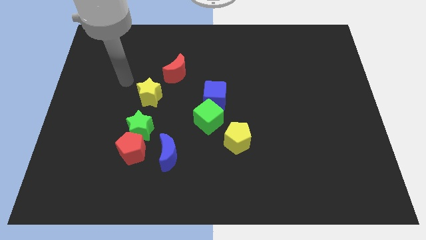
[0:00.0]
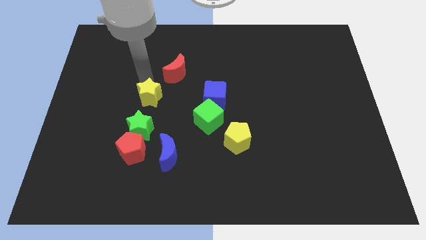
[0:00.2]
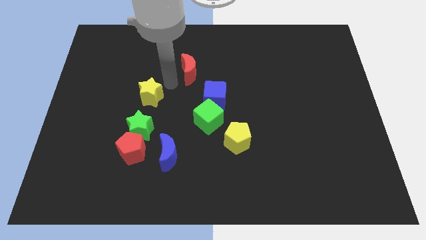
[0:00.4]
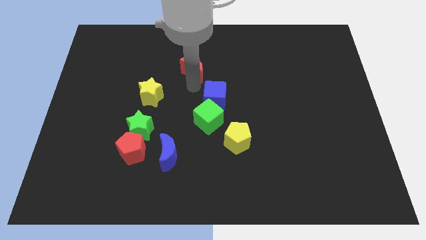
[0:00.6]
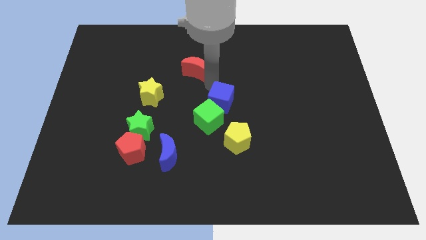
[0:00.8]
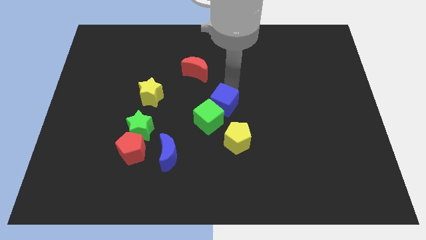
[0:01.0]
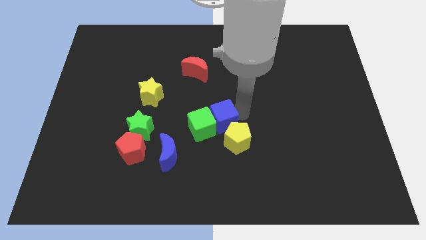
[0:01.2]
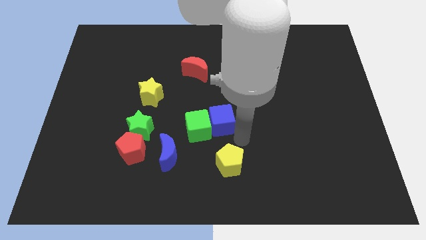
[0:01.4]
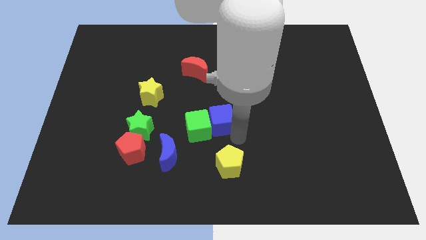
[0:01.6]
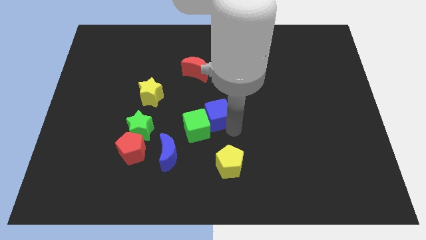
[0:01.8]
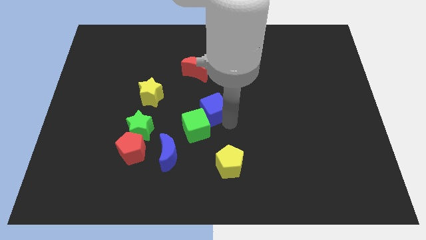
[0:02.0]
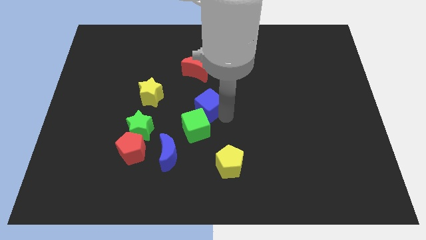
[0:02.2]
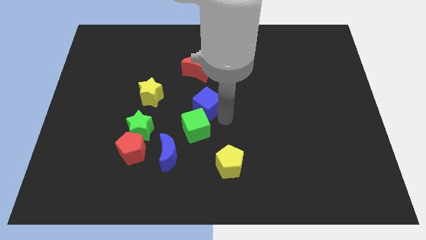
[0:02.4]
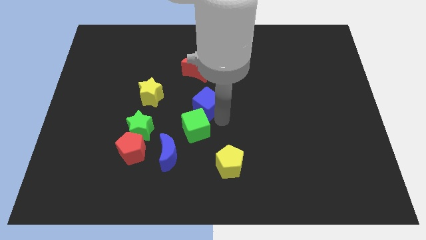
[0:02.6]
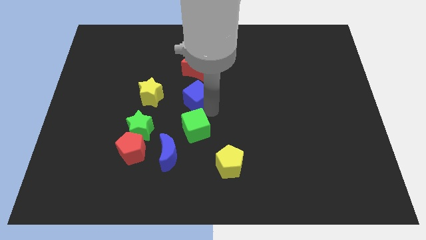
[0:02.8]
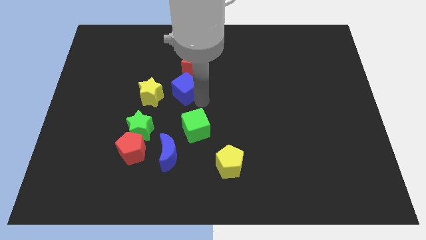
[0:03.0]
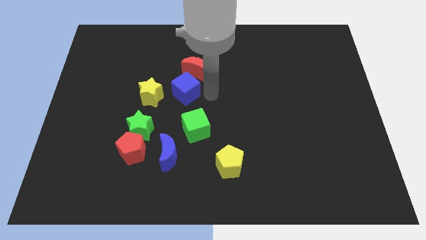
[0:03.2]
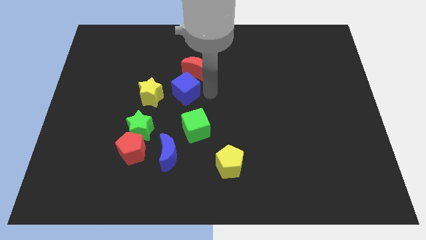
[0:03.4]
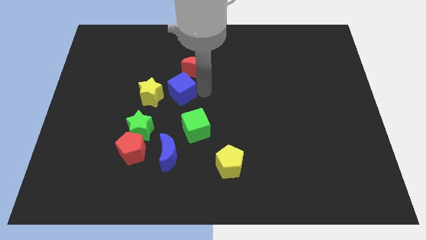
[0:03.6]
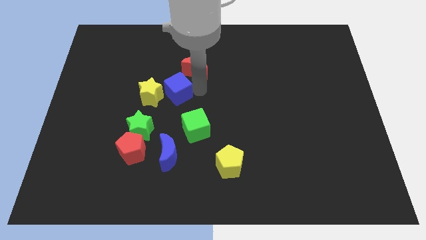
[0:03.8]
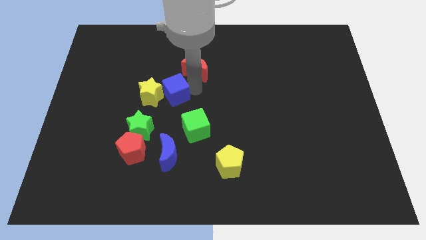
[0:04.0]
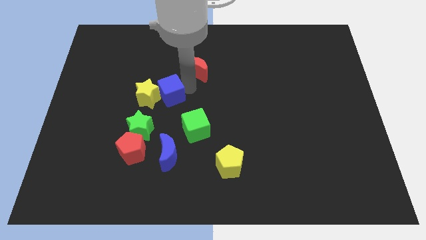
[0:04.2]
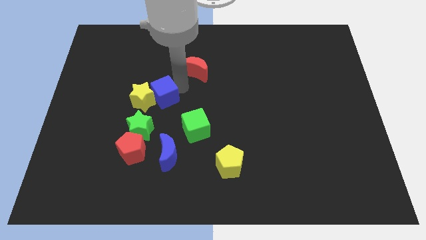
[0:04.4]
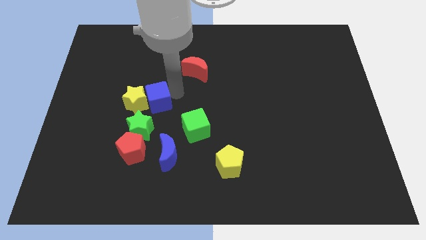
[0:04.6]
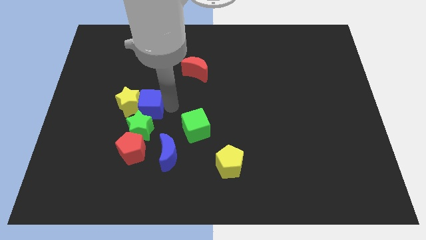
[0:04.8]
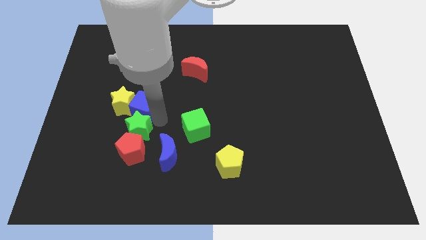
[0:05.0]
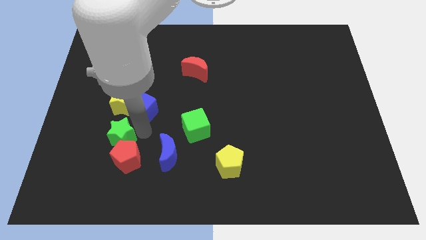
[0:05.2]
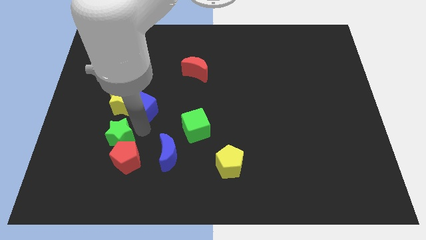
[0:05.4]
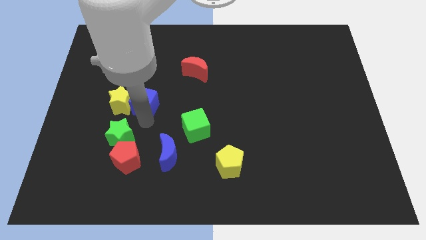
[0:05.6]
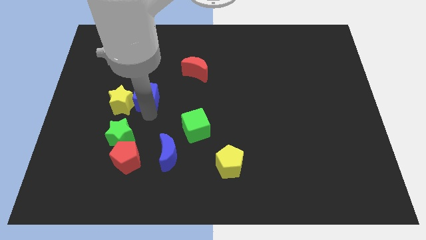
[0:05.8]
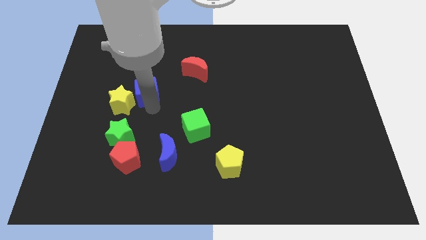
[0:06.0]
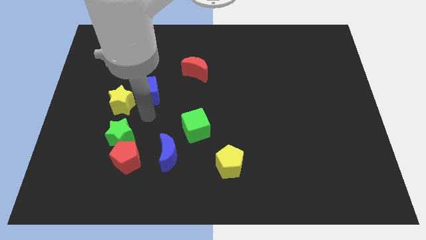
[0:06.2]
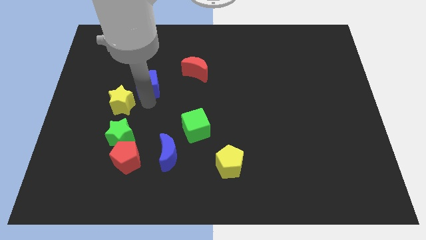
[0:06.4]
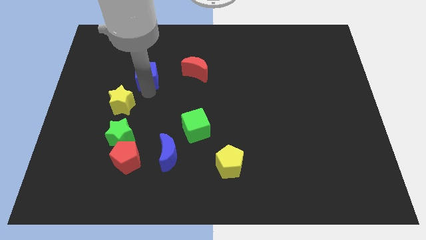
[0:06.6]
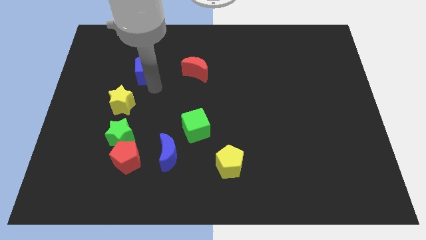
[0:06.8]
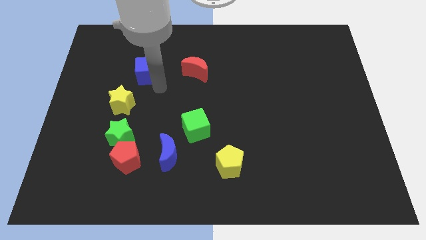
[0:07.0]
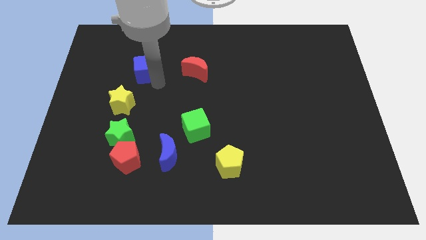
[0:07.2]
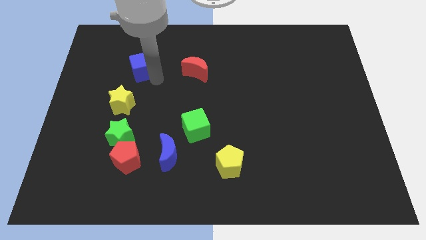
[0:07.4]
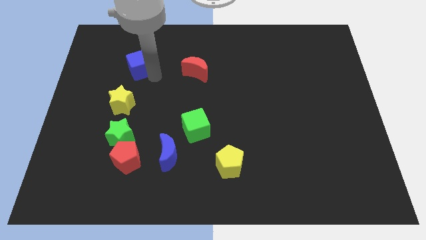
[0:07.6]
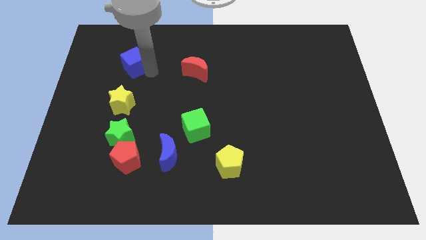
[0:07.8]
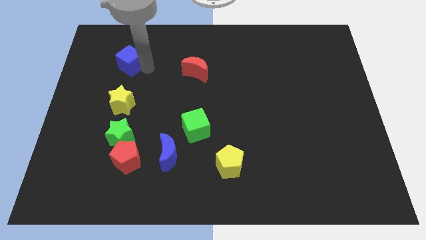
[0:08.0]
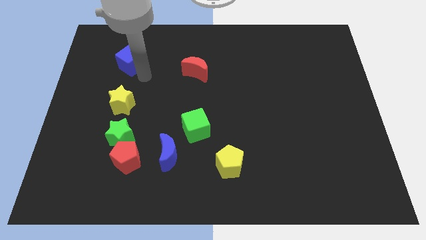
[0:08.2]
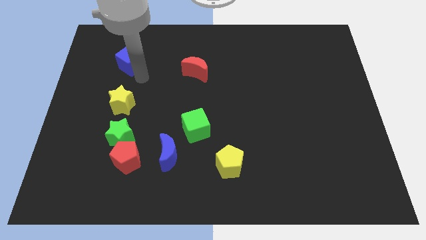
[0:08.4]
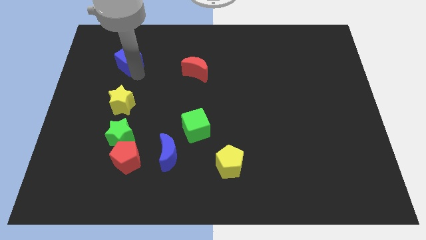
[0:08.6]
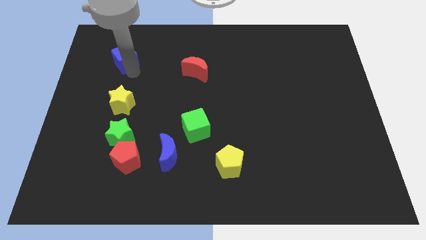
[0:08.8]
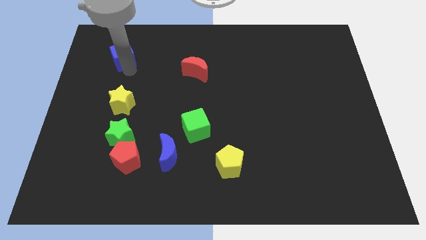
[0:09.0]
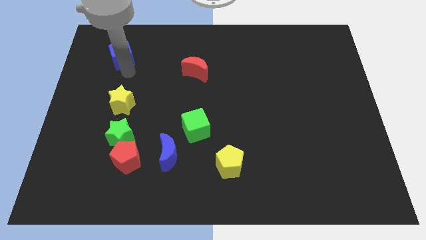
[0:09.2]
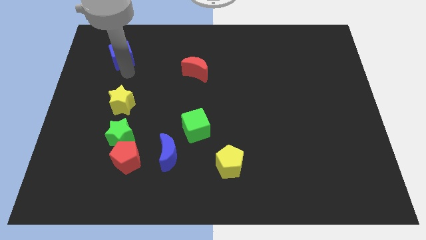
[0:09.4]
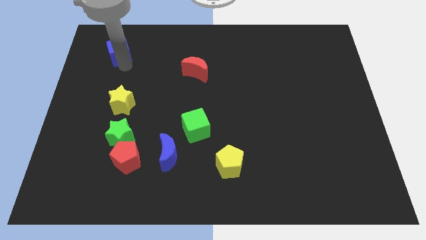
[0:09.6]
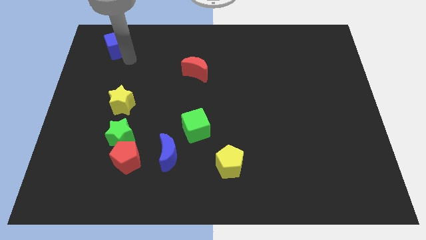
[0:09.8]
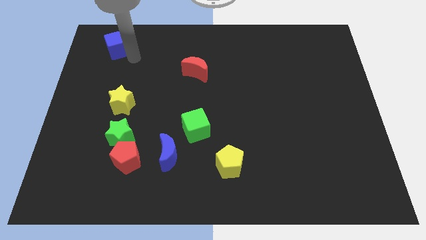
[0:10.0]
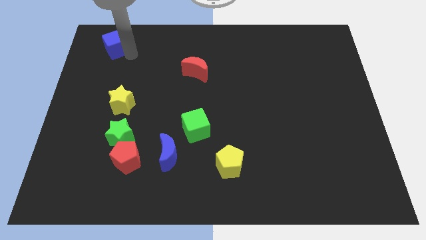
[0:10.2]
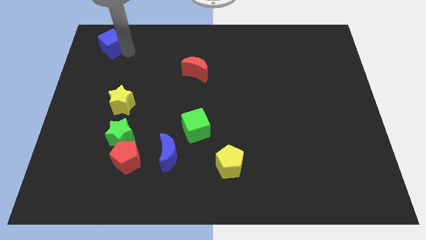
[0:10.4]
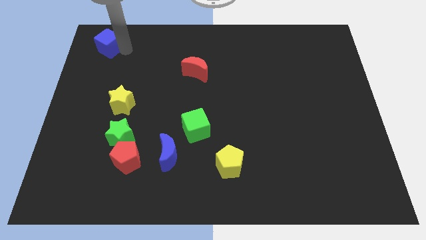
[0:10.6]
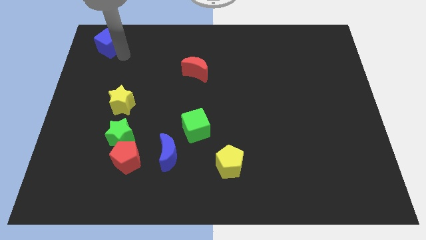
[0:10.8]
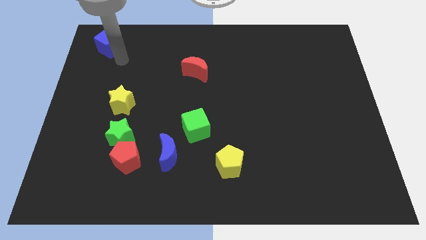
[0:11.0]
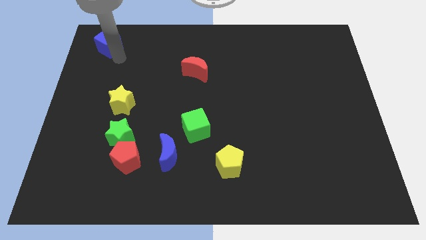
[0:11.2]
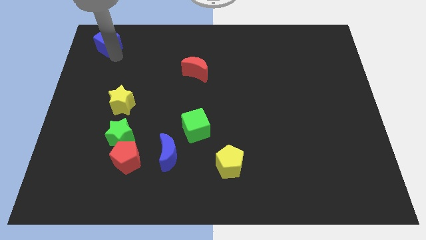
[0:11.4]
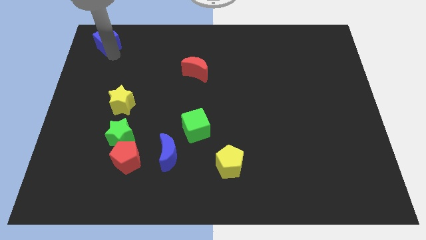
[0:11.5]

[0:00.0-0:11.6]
slide the blue cube to the upper left corner

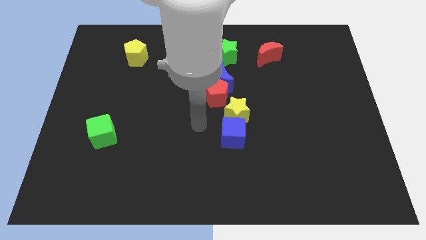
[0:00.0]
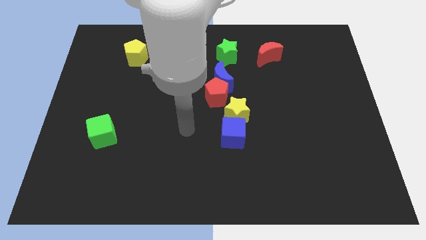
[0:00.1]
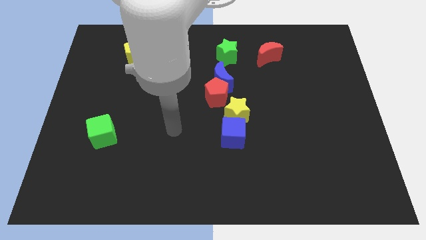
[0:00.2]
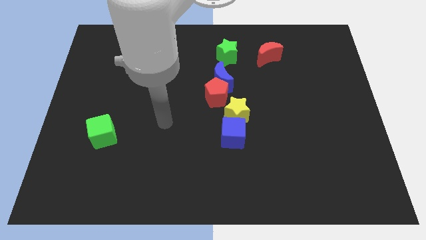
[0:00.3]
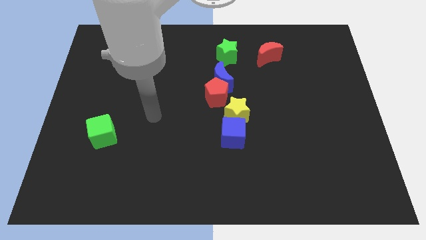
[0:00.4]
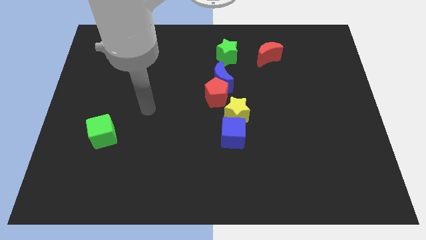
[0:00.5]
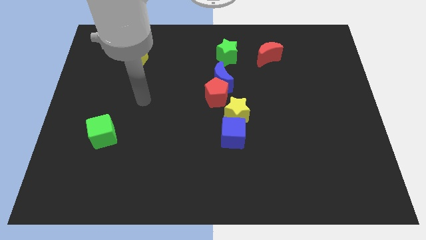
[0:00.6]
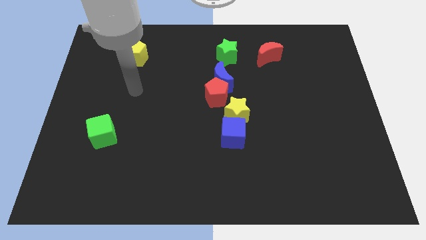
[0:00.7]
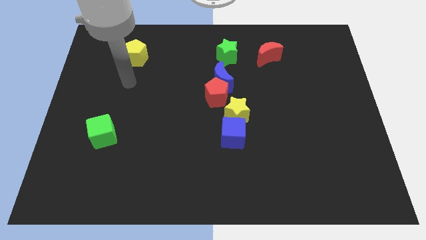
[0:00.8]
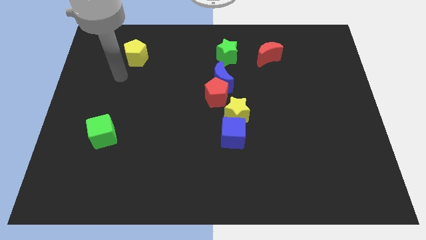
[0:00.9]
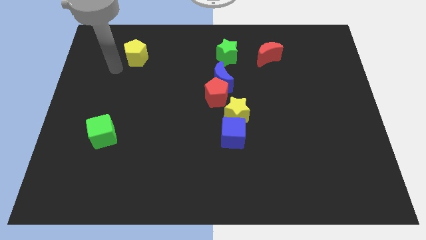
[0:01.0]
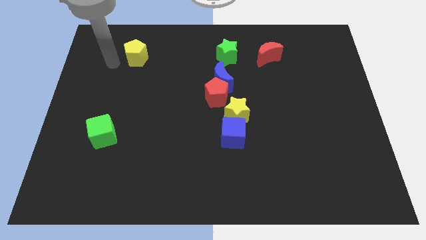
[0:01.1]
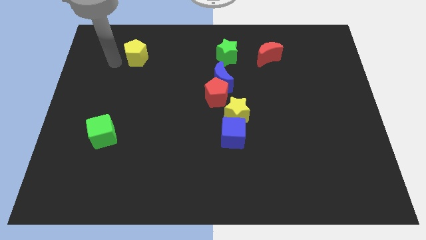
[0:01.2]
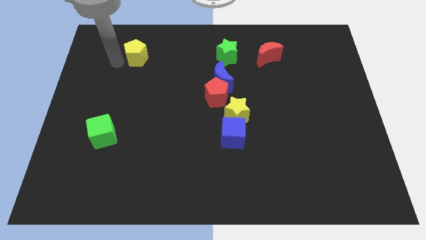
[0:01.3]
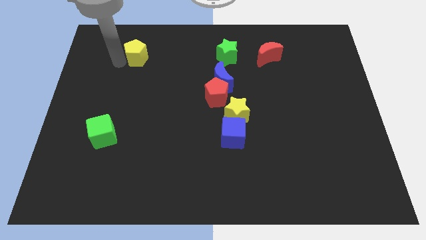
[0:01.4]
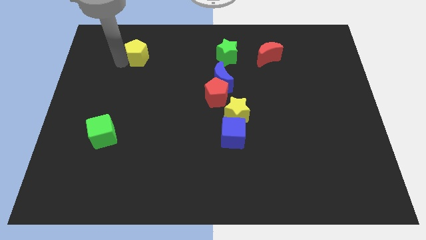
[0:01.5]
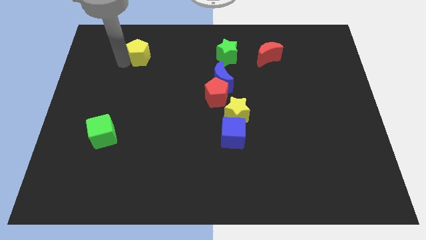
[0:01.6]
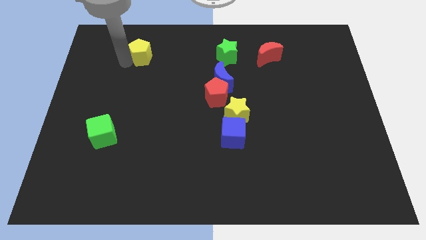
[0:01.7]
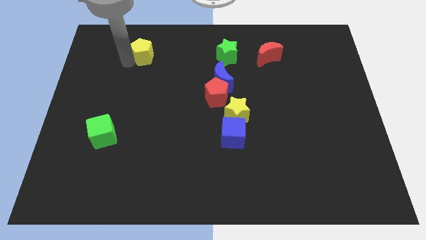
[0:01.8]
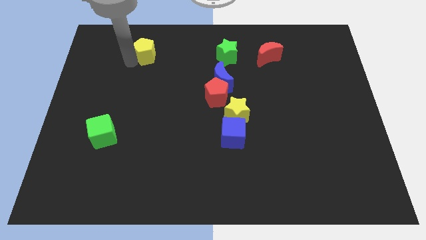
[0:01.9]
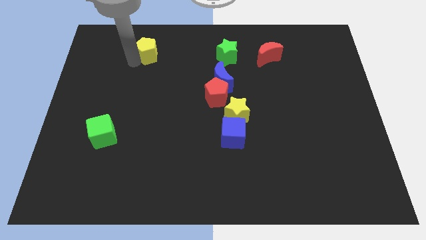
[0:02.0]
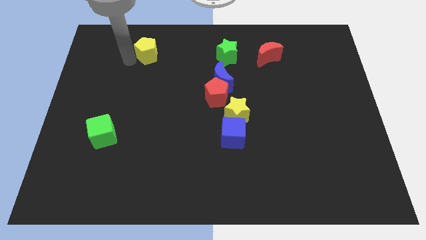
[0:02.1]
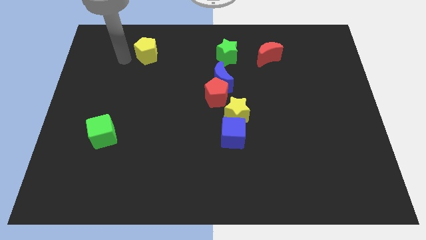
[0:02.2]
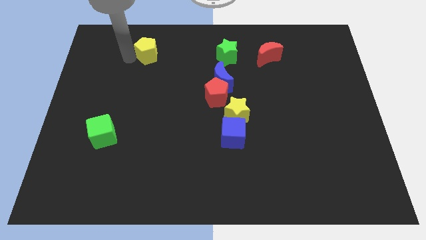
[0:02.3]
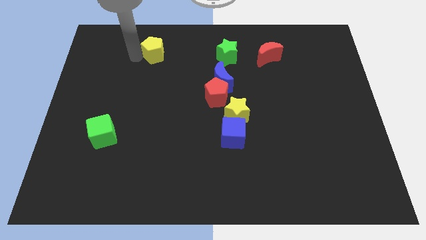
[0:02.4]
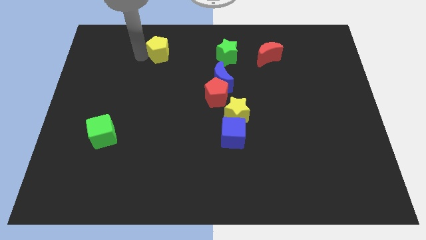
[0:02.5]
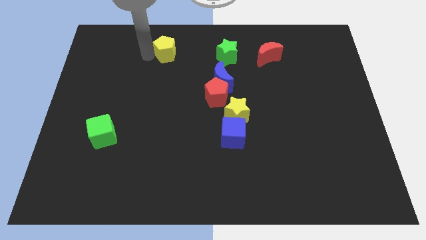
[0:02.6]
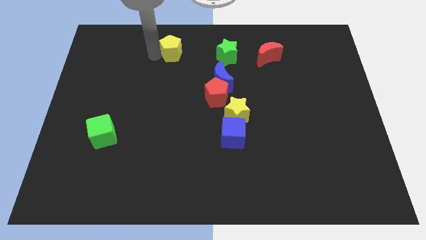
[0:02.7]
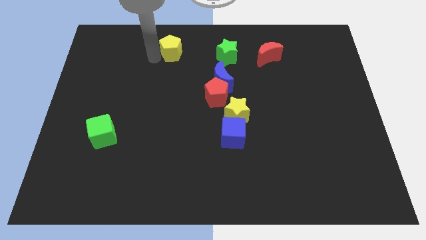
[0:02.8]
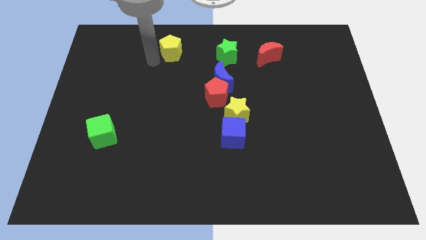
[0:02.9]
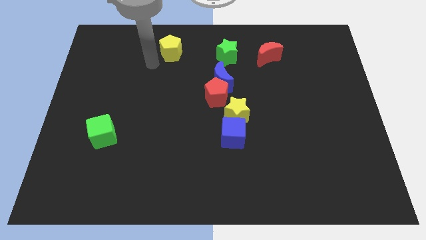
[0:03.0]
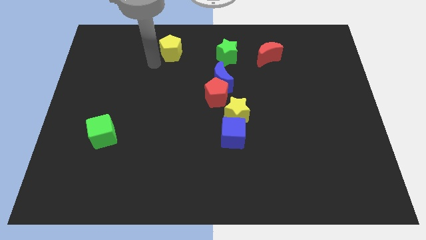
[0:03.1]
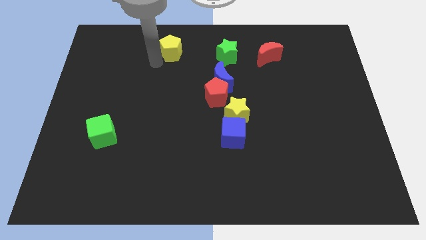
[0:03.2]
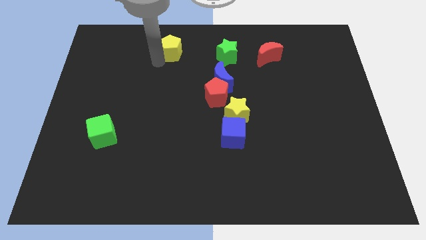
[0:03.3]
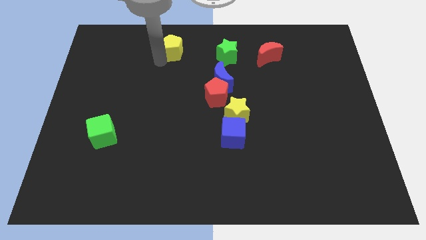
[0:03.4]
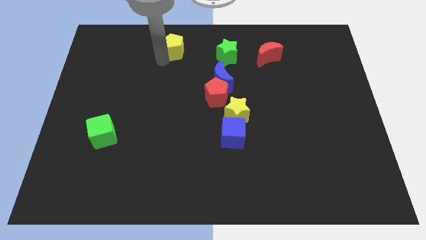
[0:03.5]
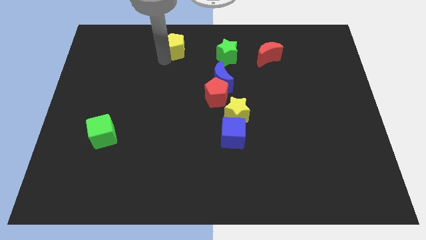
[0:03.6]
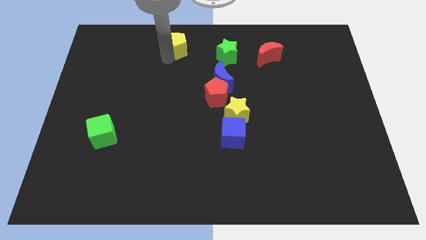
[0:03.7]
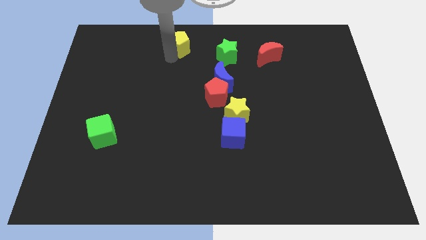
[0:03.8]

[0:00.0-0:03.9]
move the yellow pentagon to the top side
